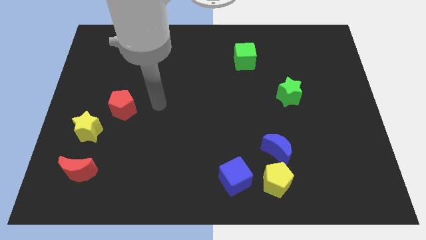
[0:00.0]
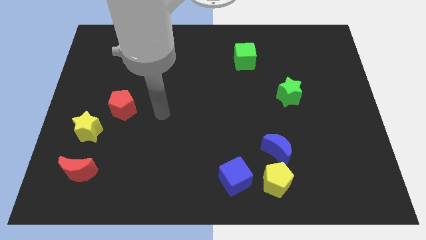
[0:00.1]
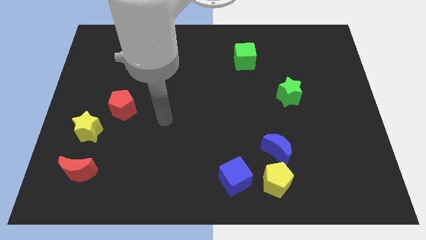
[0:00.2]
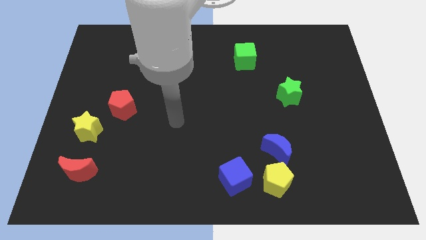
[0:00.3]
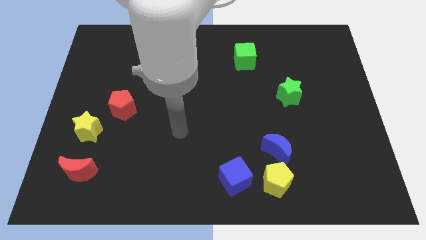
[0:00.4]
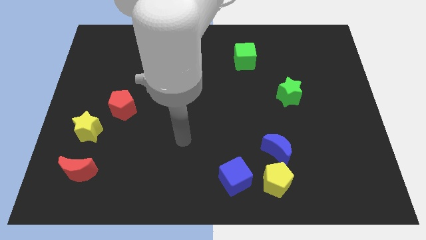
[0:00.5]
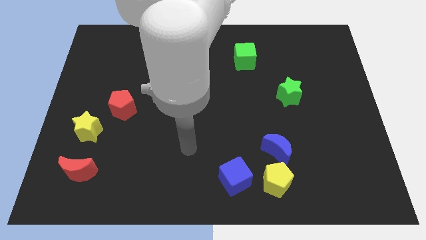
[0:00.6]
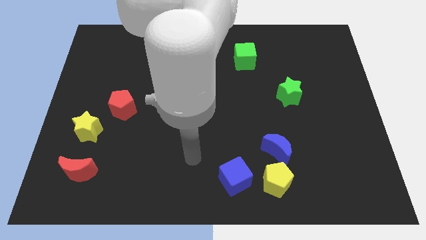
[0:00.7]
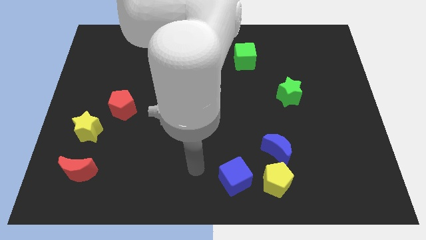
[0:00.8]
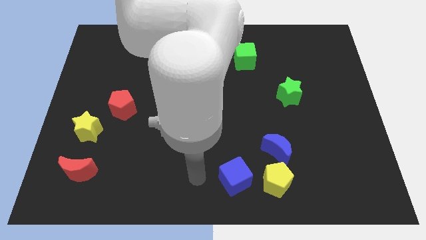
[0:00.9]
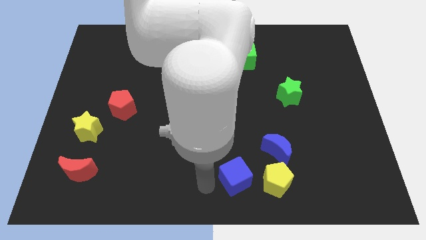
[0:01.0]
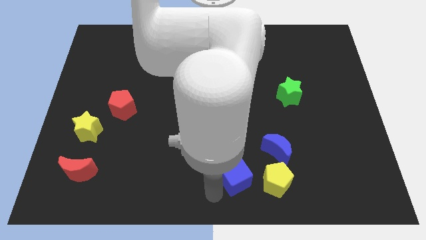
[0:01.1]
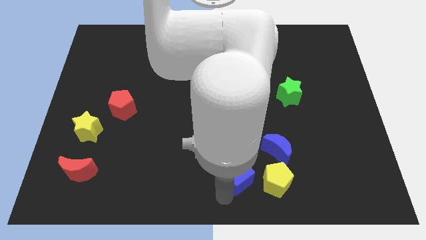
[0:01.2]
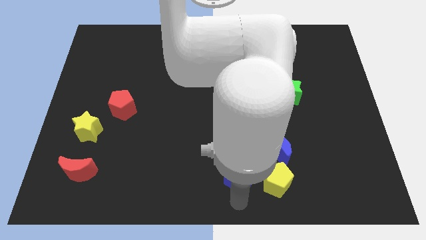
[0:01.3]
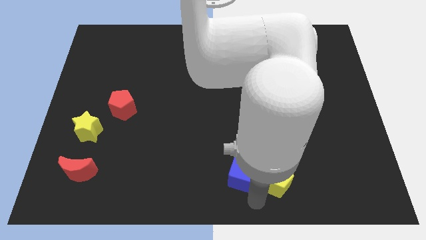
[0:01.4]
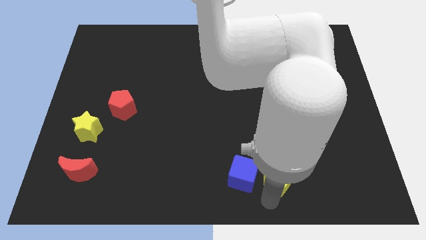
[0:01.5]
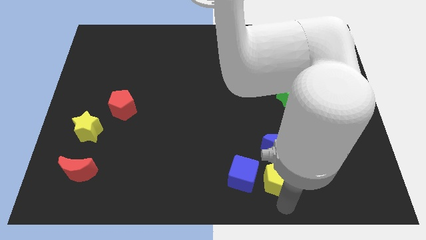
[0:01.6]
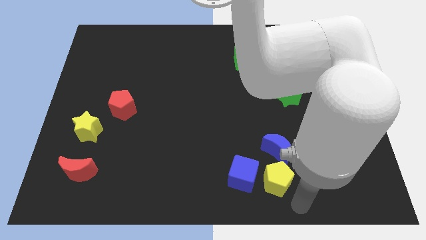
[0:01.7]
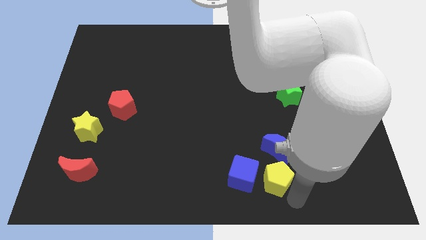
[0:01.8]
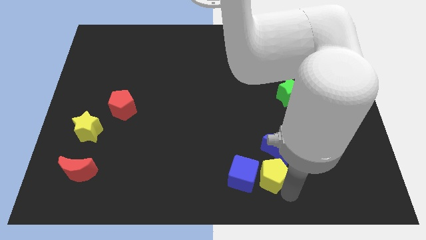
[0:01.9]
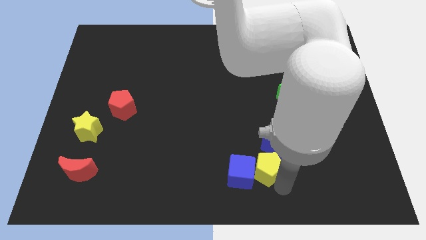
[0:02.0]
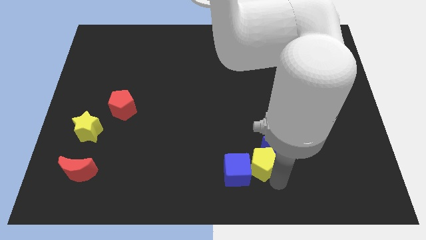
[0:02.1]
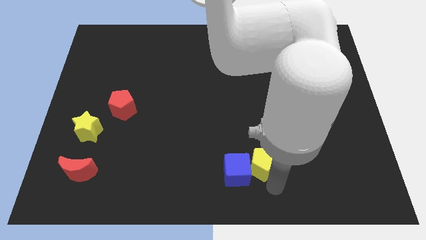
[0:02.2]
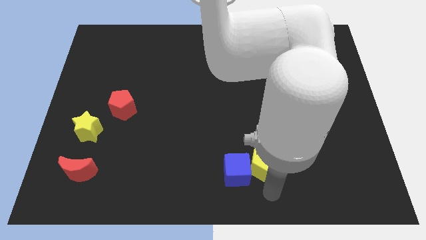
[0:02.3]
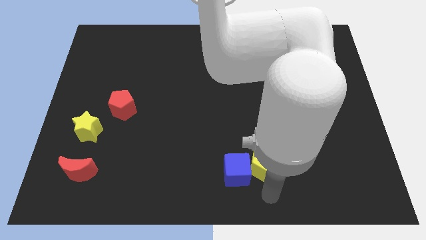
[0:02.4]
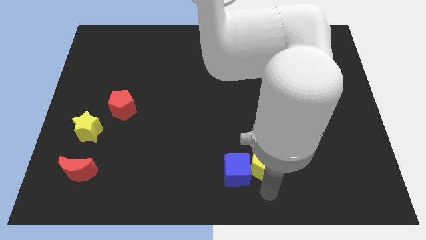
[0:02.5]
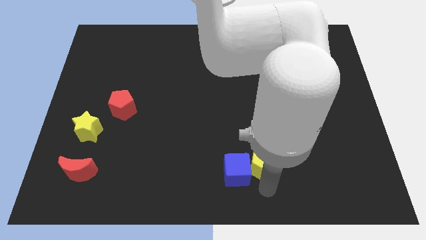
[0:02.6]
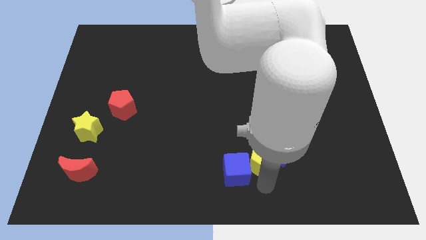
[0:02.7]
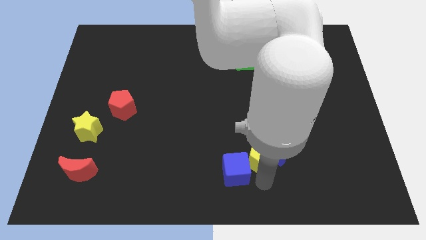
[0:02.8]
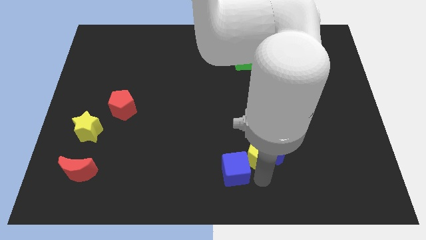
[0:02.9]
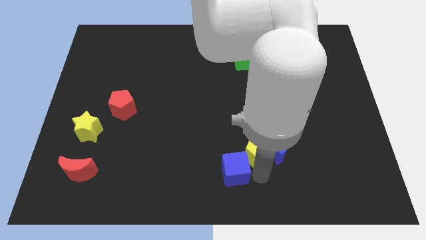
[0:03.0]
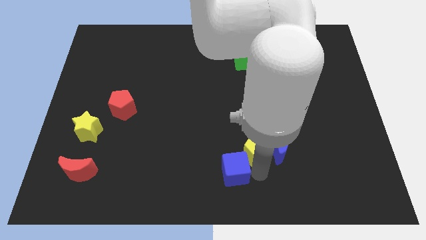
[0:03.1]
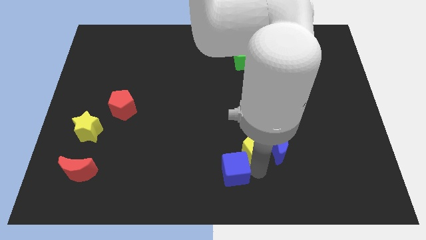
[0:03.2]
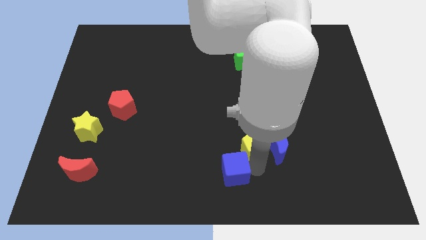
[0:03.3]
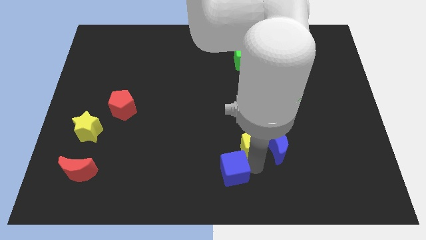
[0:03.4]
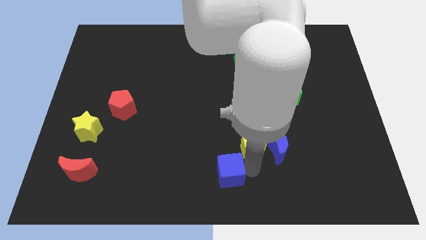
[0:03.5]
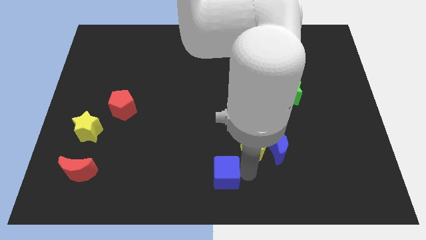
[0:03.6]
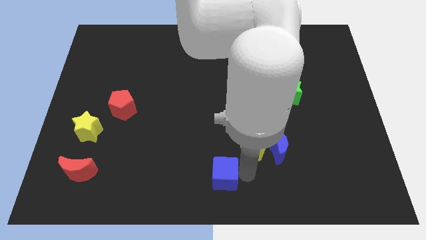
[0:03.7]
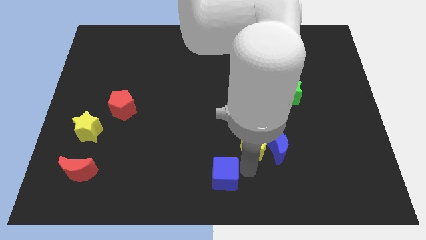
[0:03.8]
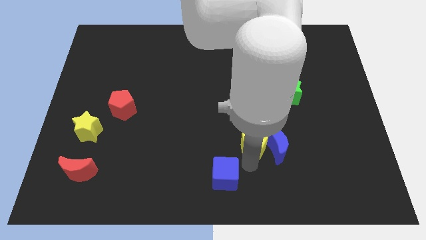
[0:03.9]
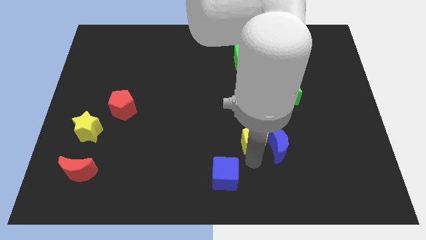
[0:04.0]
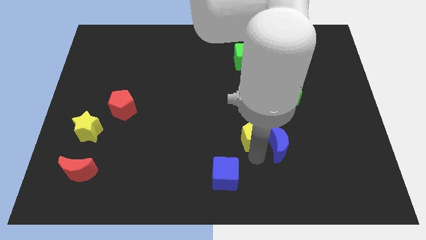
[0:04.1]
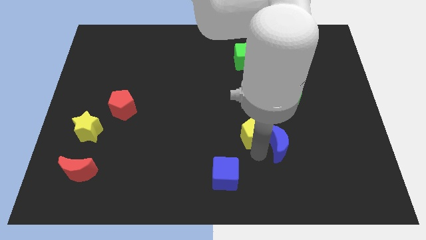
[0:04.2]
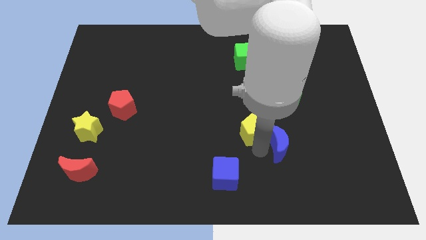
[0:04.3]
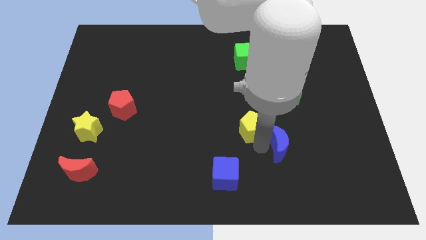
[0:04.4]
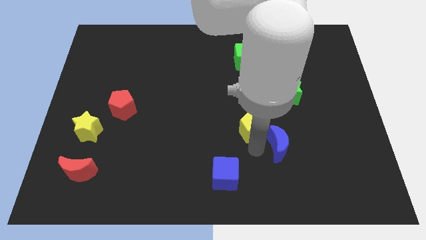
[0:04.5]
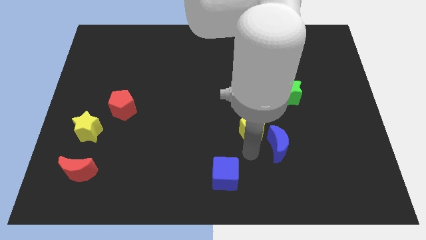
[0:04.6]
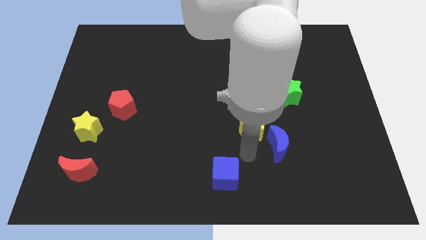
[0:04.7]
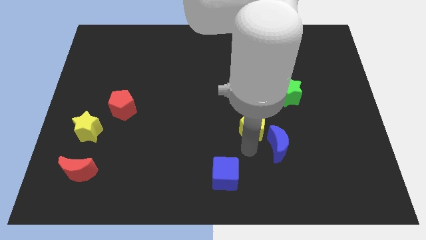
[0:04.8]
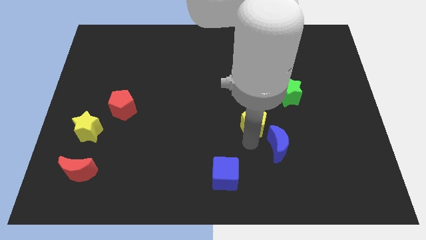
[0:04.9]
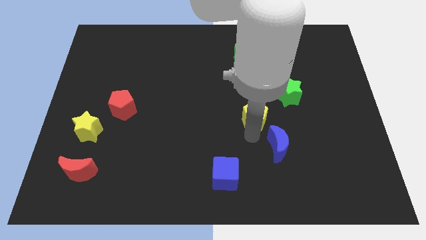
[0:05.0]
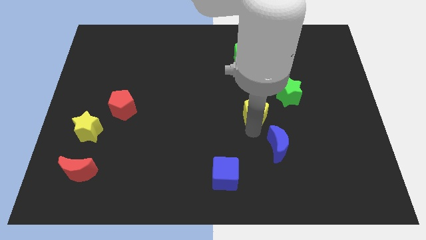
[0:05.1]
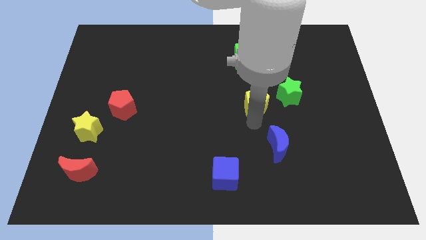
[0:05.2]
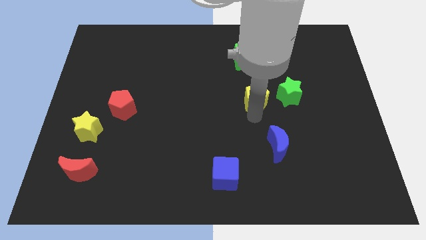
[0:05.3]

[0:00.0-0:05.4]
push the yellow pentagon upwards

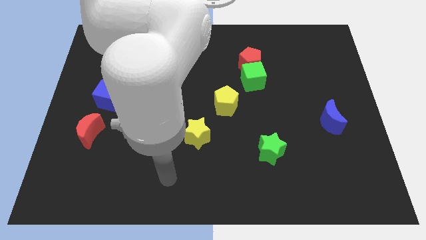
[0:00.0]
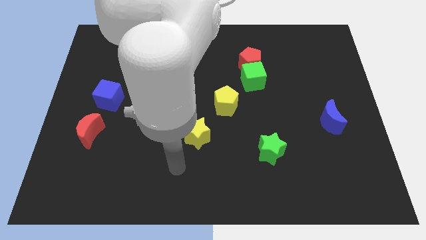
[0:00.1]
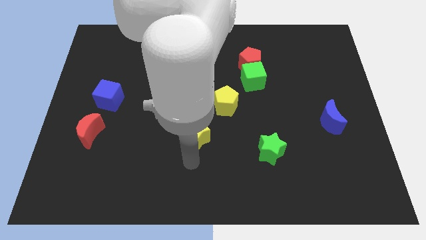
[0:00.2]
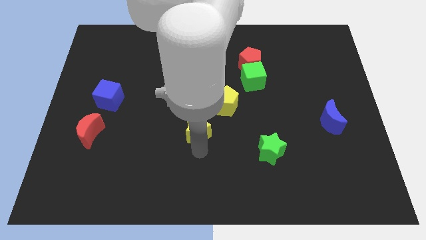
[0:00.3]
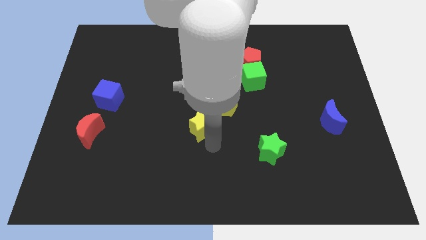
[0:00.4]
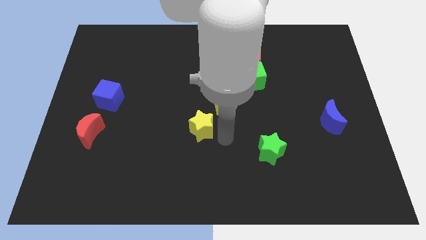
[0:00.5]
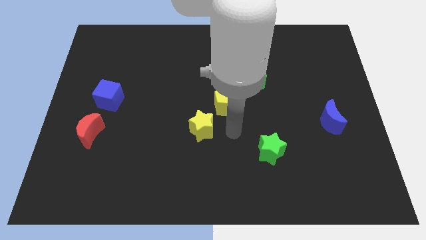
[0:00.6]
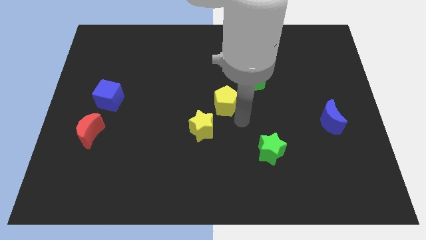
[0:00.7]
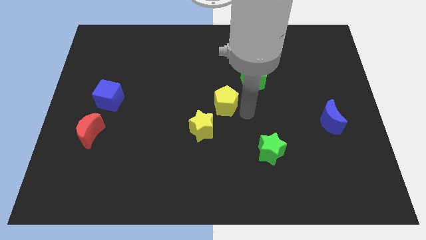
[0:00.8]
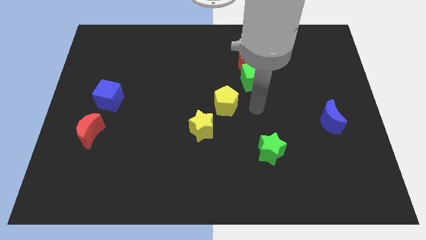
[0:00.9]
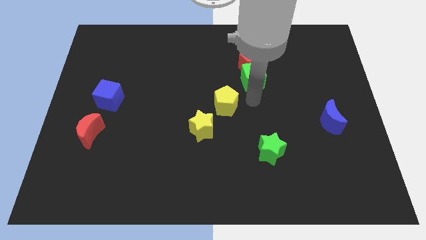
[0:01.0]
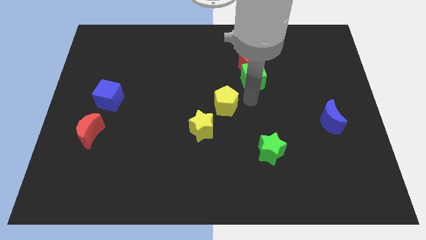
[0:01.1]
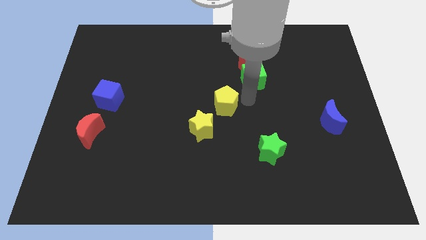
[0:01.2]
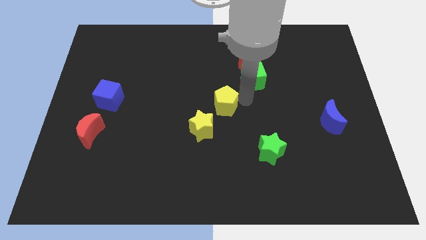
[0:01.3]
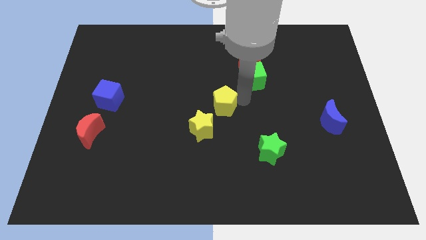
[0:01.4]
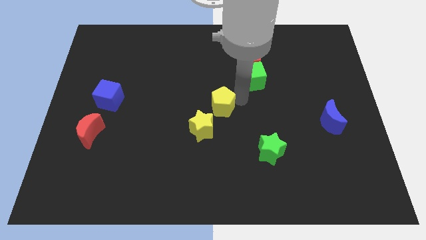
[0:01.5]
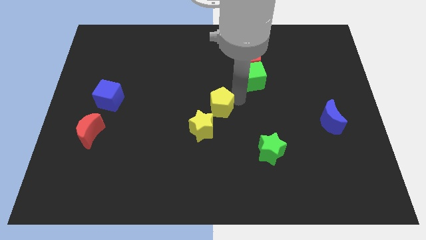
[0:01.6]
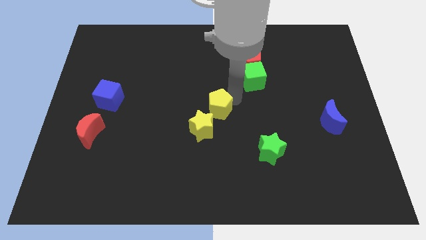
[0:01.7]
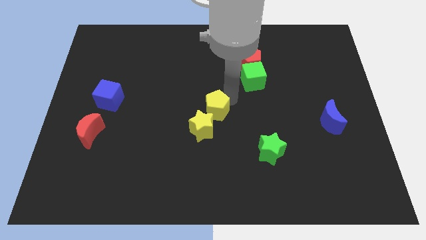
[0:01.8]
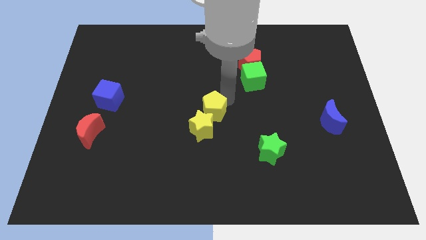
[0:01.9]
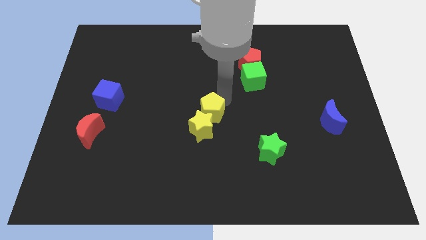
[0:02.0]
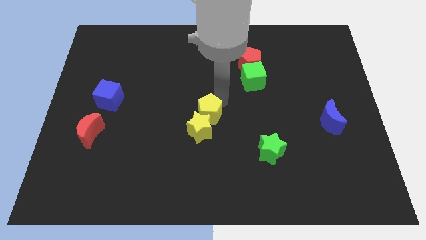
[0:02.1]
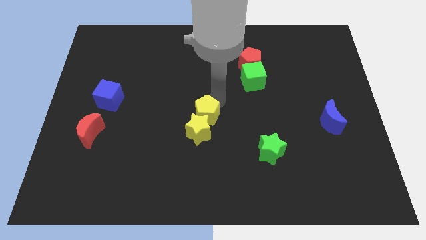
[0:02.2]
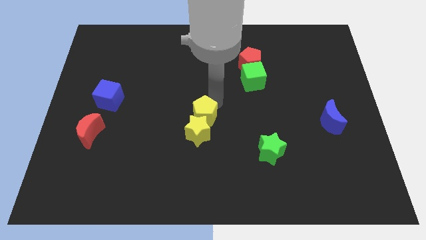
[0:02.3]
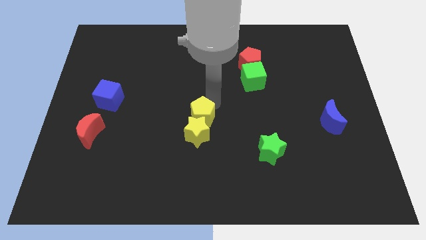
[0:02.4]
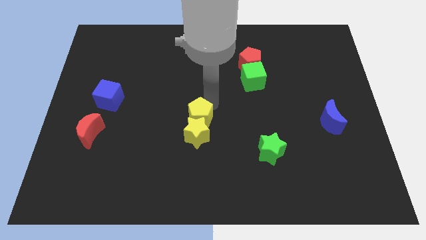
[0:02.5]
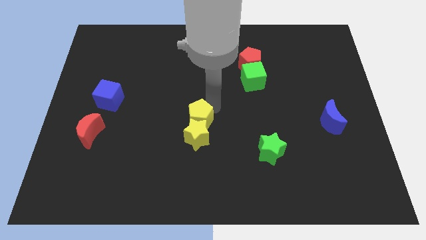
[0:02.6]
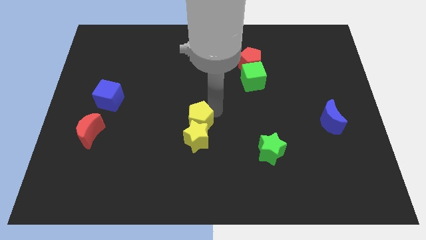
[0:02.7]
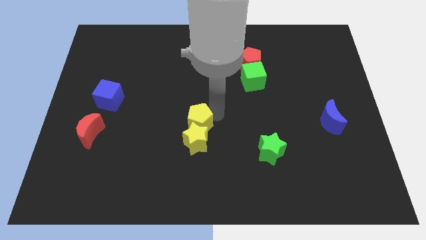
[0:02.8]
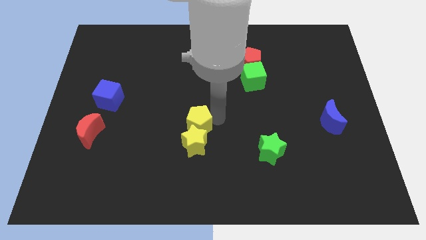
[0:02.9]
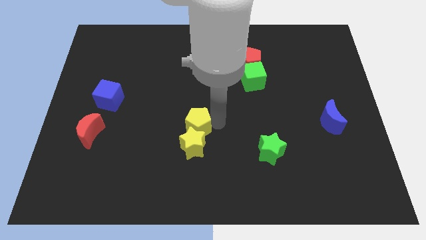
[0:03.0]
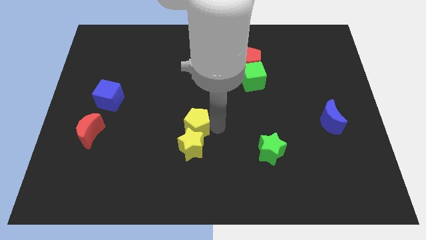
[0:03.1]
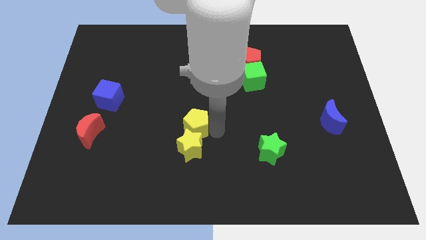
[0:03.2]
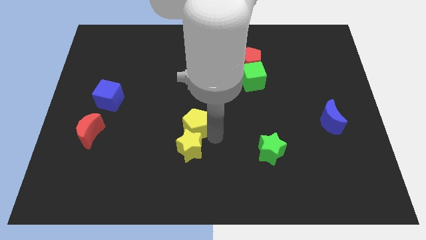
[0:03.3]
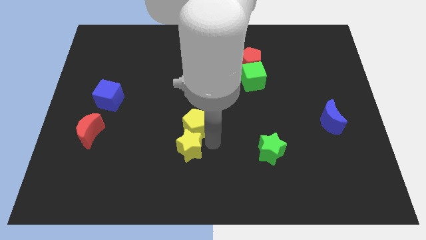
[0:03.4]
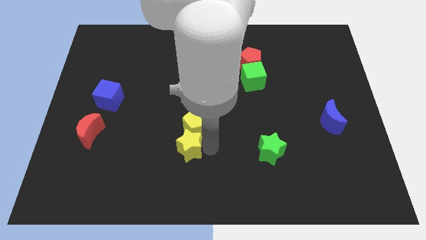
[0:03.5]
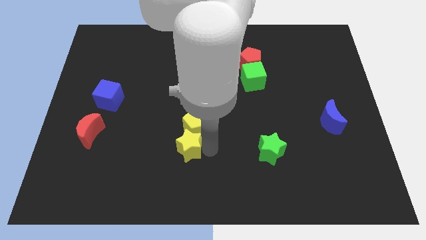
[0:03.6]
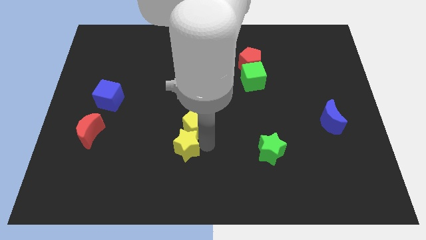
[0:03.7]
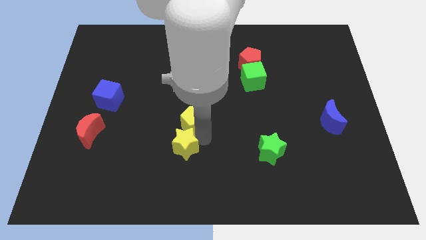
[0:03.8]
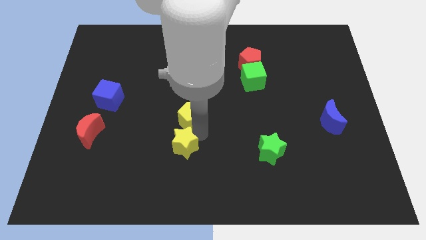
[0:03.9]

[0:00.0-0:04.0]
slightly push the yellow pentagon left
